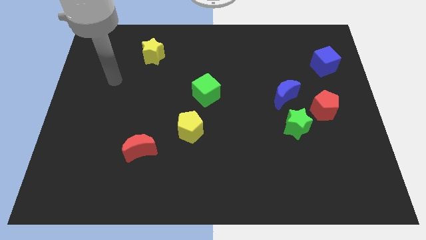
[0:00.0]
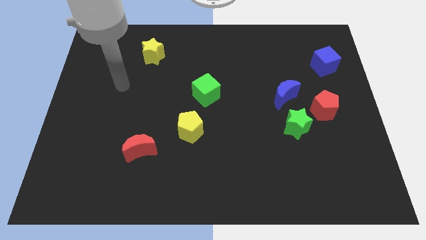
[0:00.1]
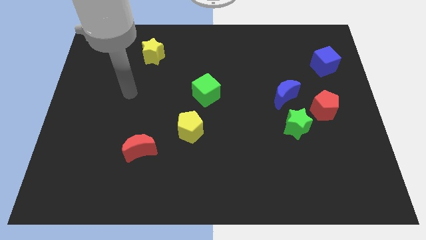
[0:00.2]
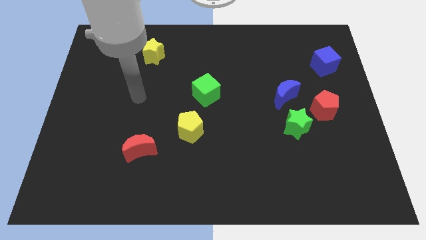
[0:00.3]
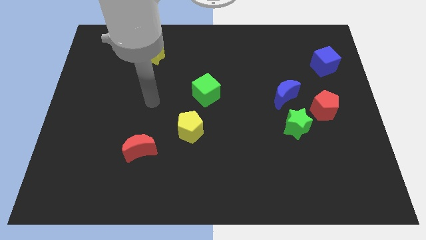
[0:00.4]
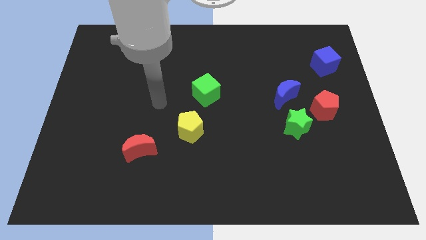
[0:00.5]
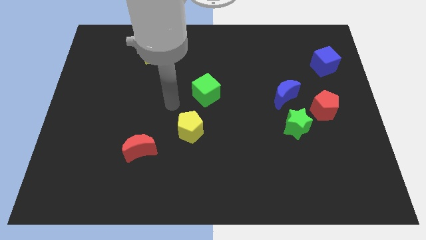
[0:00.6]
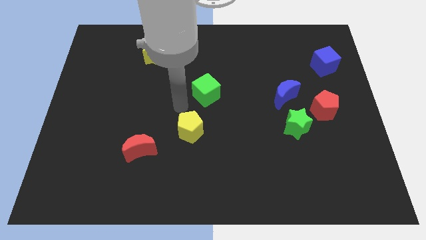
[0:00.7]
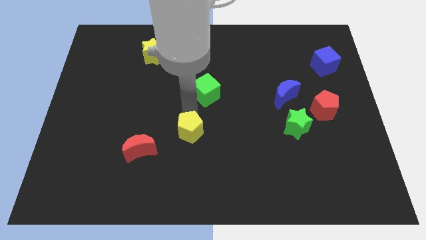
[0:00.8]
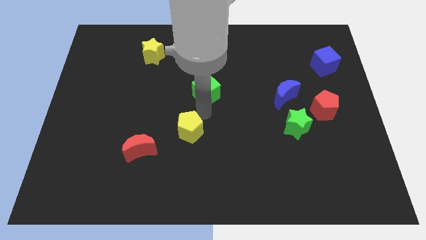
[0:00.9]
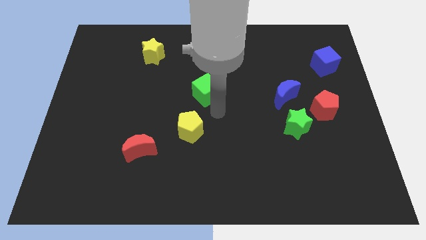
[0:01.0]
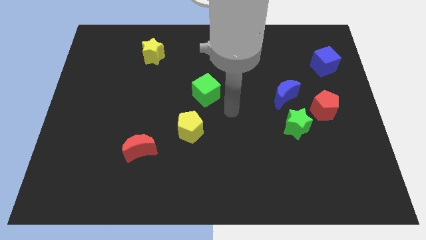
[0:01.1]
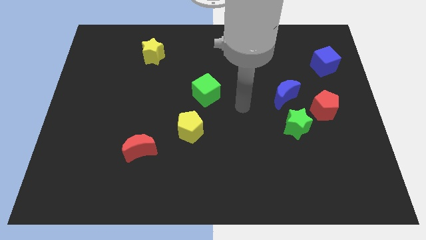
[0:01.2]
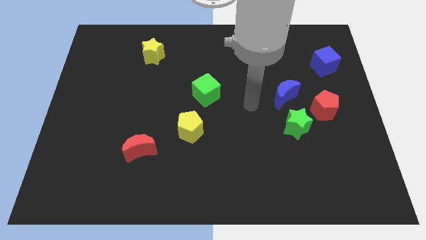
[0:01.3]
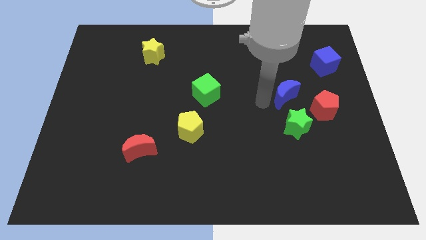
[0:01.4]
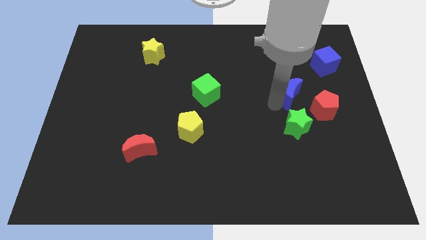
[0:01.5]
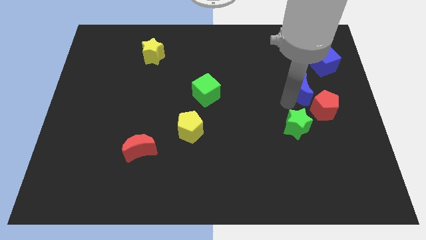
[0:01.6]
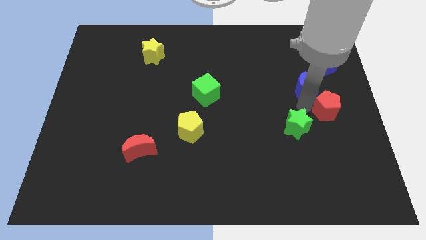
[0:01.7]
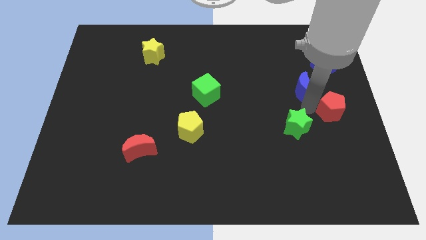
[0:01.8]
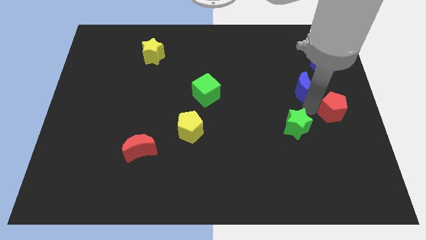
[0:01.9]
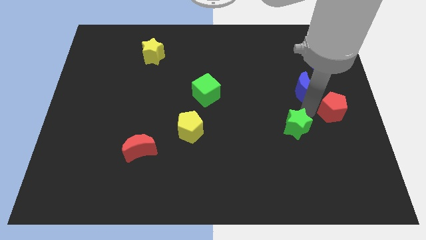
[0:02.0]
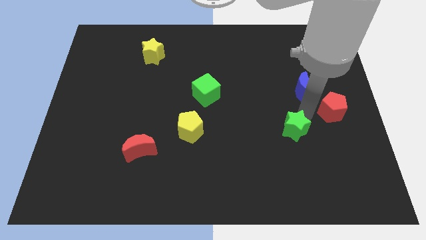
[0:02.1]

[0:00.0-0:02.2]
move the green star away from the blue moon and red pentagon

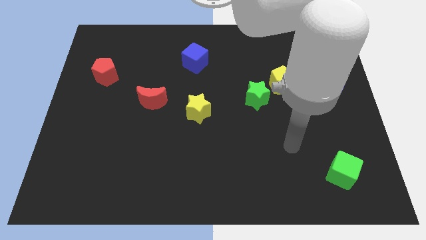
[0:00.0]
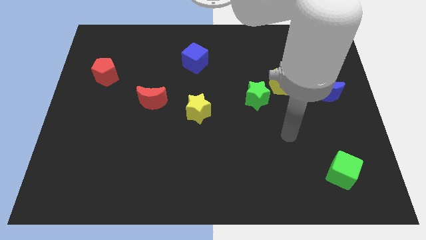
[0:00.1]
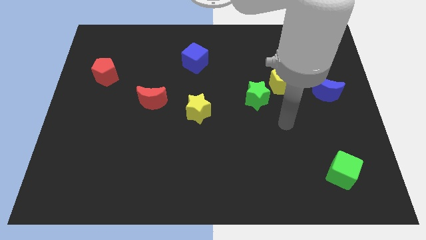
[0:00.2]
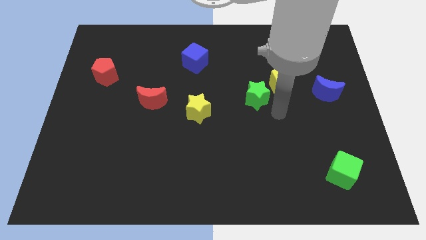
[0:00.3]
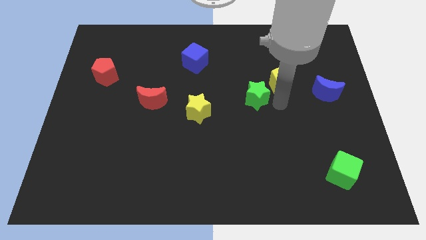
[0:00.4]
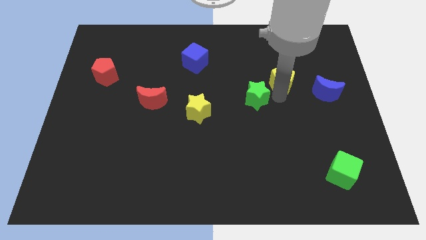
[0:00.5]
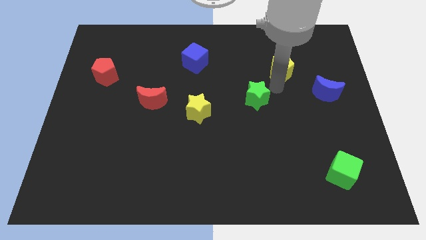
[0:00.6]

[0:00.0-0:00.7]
move the green star away from the yellow pentagon

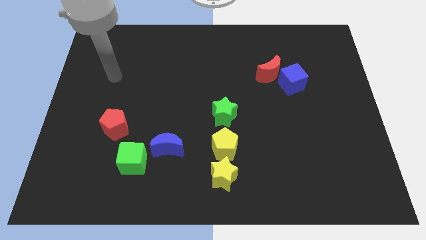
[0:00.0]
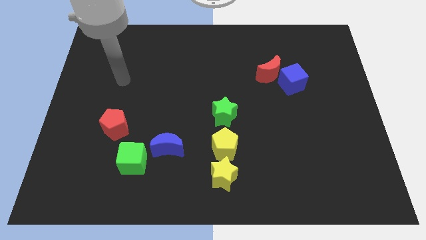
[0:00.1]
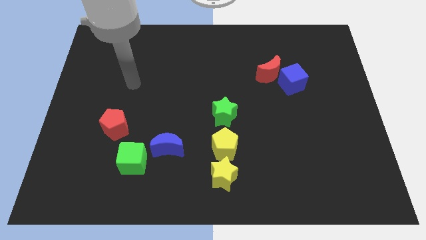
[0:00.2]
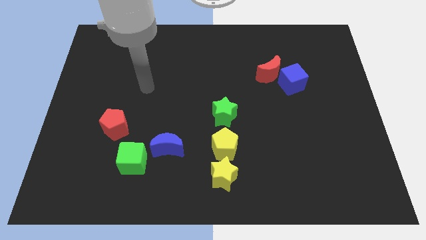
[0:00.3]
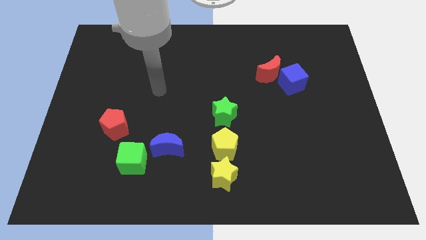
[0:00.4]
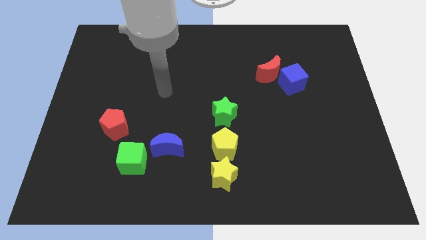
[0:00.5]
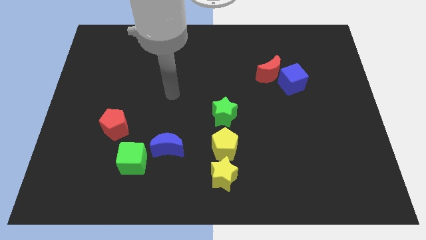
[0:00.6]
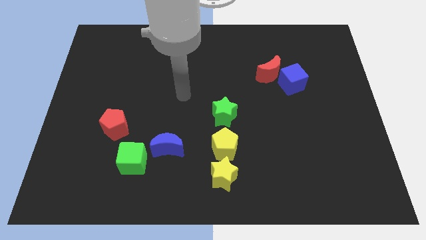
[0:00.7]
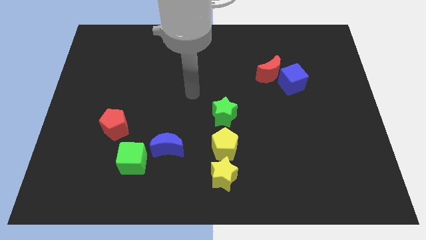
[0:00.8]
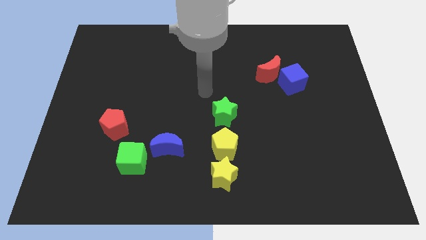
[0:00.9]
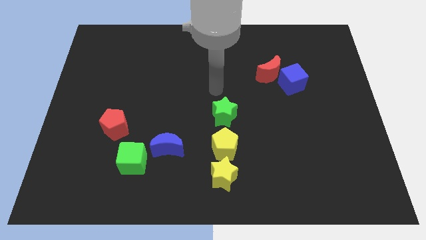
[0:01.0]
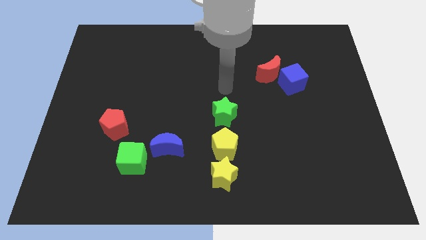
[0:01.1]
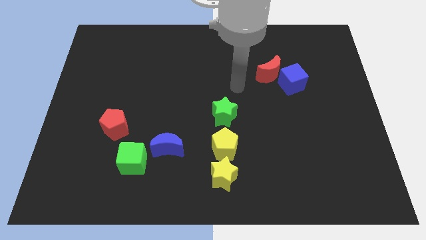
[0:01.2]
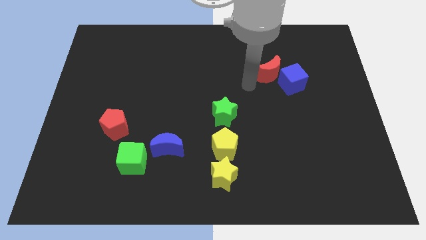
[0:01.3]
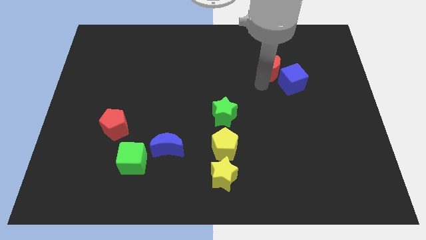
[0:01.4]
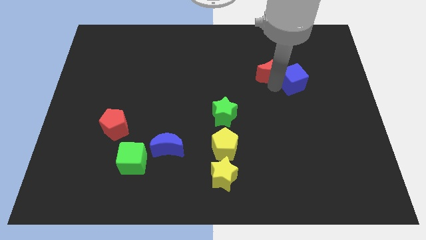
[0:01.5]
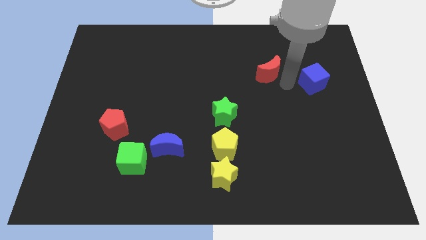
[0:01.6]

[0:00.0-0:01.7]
separate the red moon from the blue cube

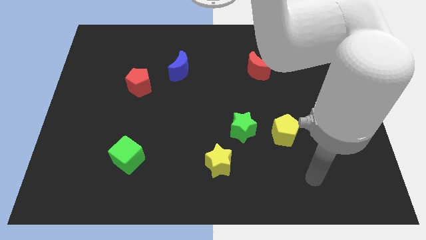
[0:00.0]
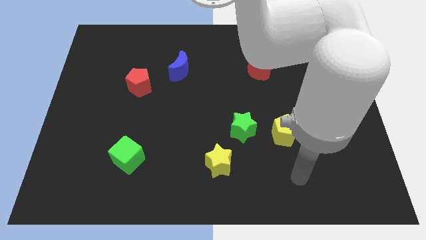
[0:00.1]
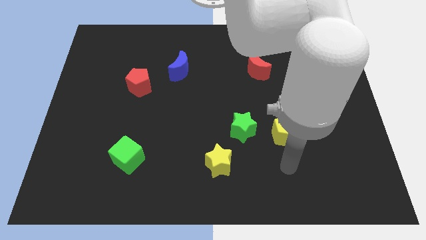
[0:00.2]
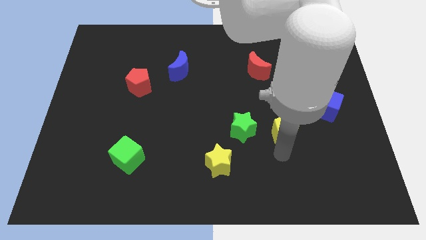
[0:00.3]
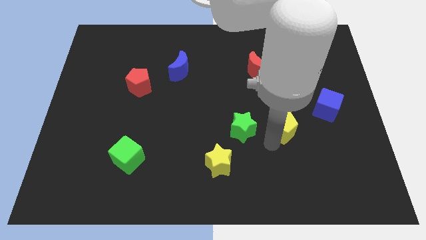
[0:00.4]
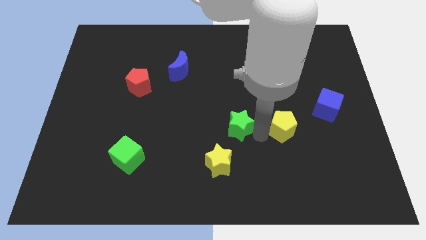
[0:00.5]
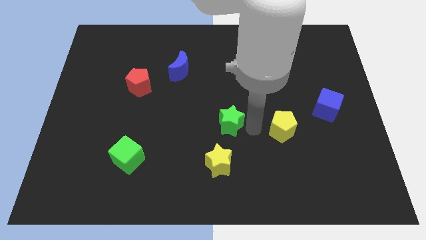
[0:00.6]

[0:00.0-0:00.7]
pull the yellow pentagon apart from the green star

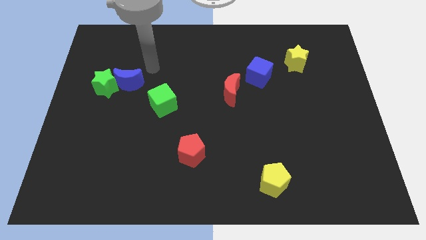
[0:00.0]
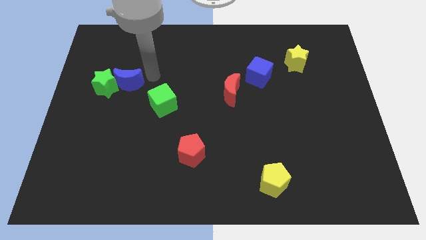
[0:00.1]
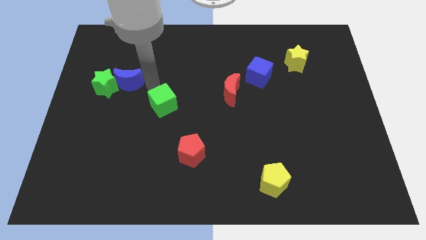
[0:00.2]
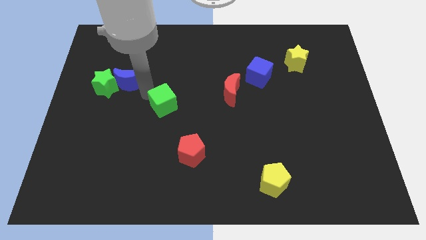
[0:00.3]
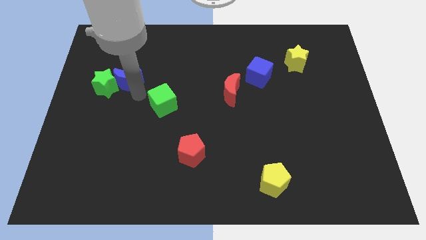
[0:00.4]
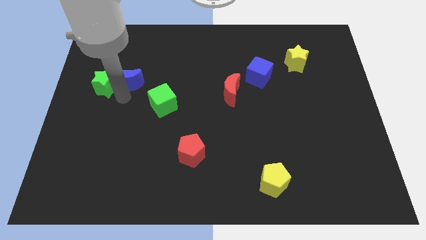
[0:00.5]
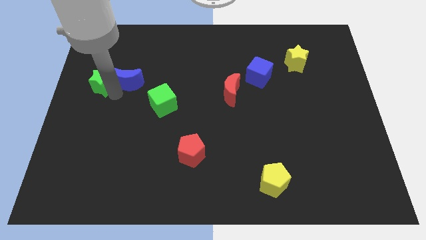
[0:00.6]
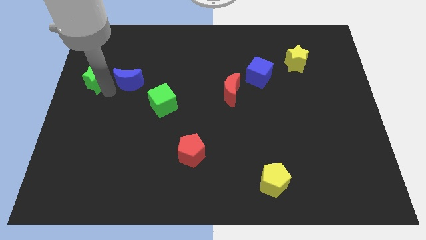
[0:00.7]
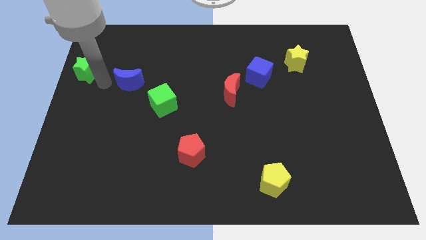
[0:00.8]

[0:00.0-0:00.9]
move the blue moon away from the green star

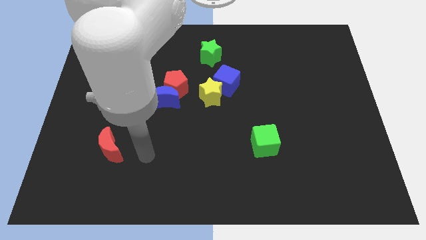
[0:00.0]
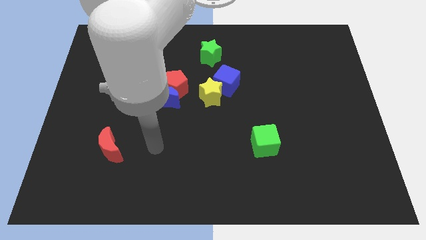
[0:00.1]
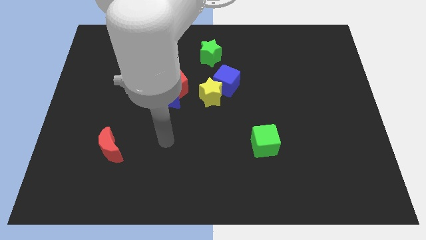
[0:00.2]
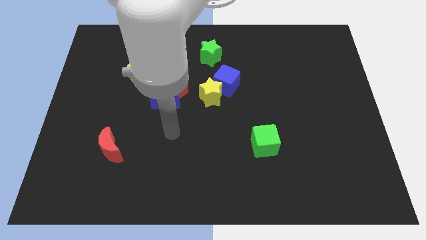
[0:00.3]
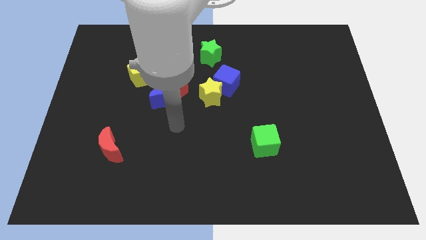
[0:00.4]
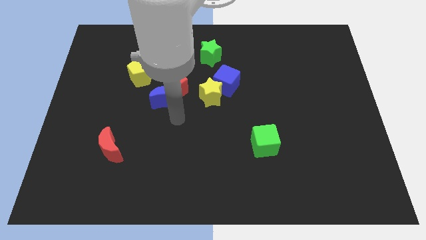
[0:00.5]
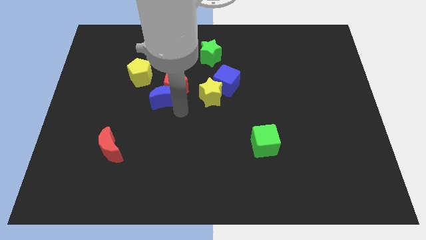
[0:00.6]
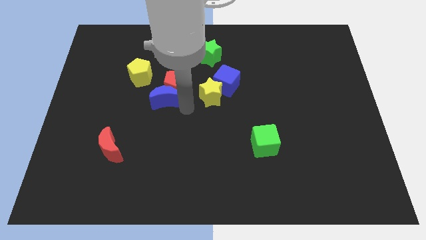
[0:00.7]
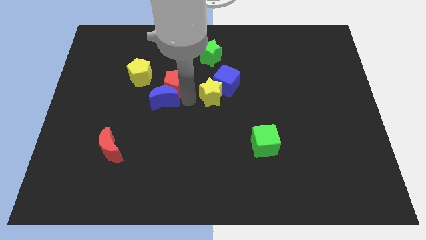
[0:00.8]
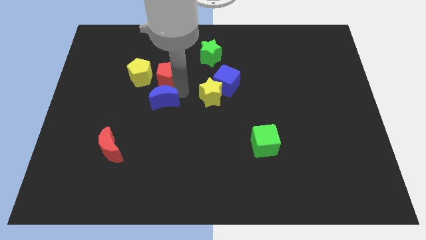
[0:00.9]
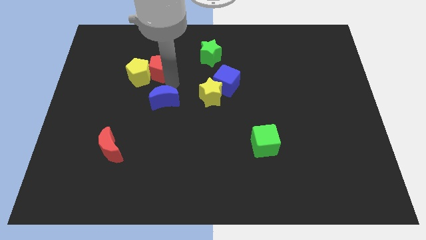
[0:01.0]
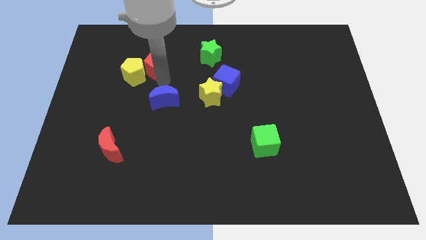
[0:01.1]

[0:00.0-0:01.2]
separate the blue moon from the red pentagon

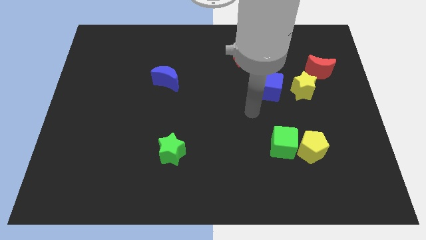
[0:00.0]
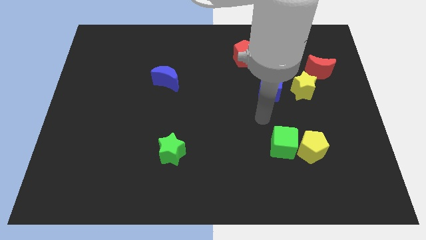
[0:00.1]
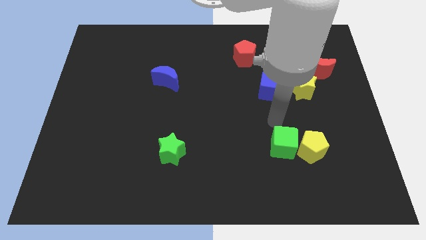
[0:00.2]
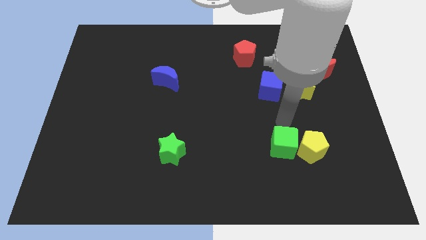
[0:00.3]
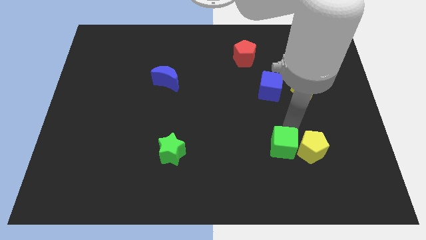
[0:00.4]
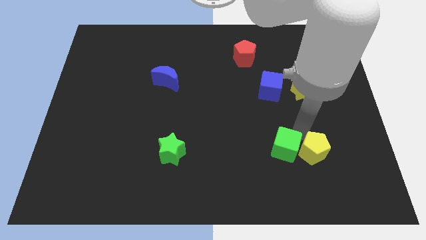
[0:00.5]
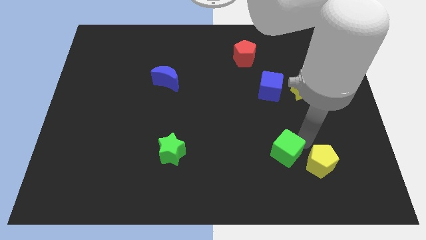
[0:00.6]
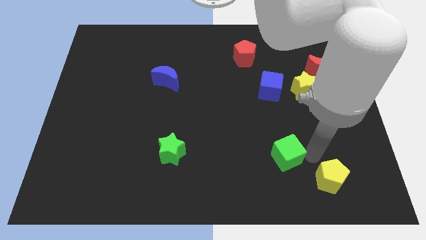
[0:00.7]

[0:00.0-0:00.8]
move the green cube away from the yellow pentagon

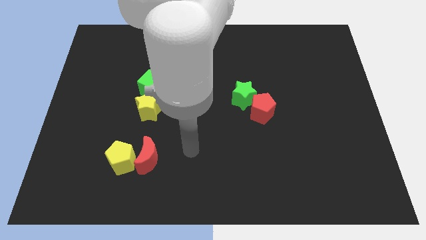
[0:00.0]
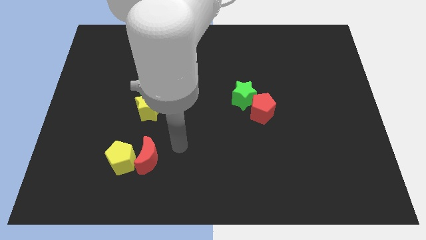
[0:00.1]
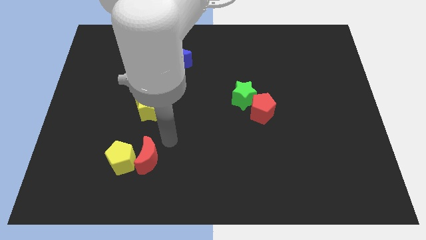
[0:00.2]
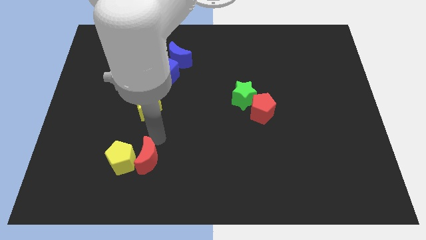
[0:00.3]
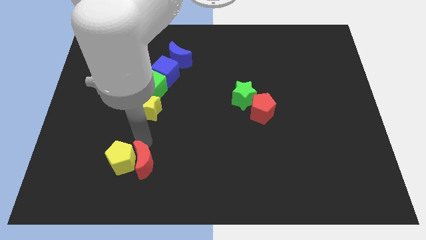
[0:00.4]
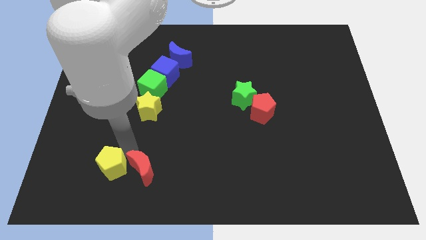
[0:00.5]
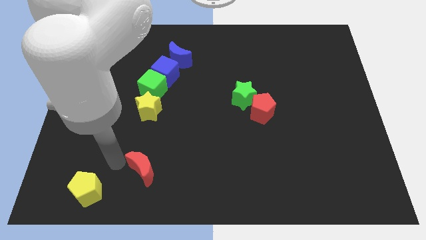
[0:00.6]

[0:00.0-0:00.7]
separate the red moon from the yellow pentagon

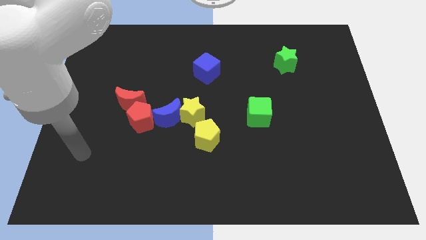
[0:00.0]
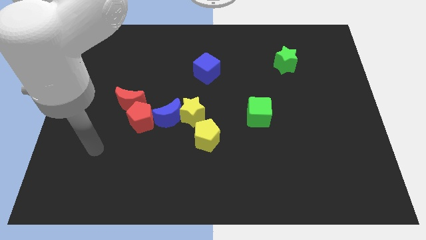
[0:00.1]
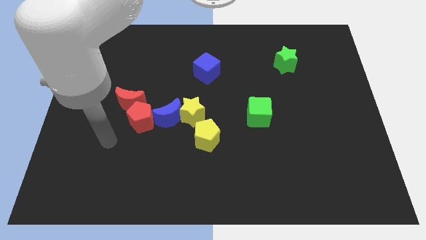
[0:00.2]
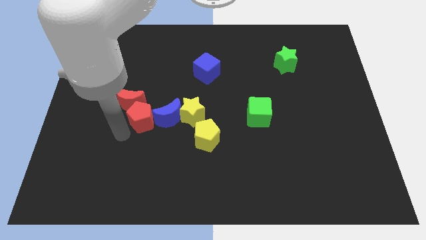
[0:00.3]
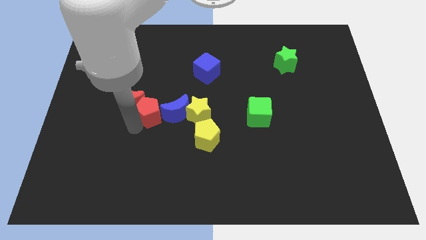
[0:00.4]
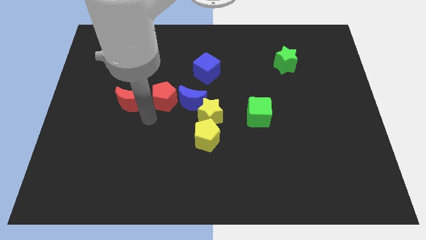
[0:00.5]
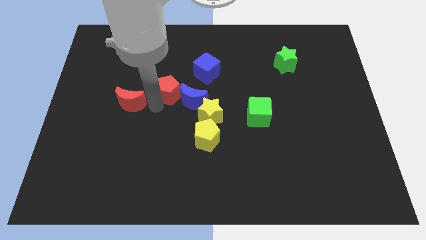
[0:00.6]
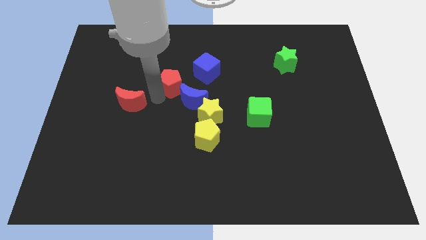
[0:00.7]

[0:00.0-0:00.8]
separate the red moon from the red pentagon
